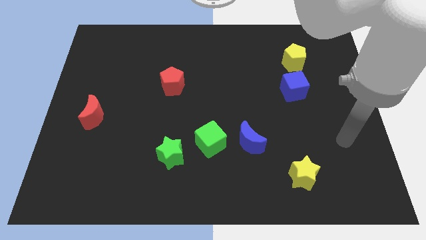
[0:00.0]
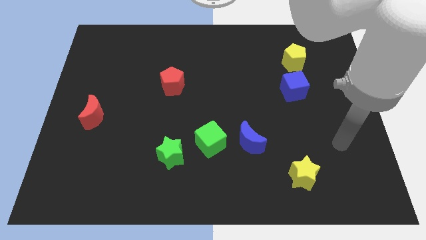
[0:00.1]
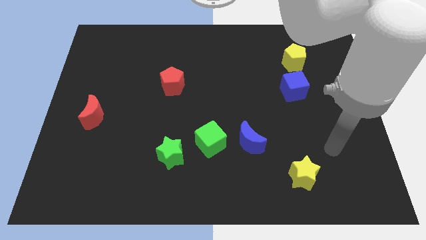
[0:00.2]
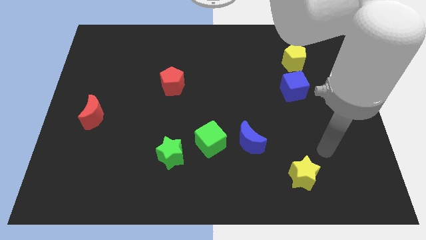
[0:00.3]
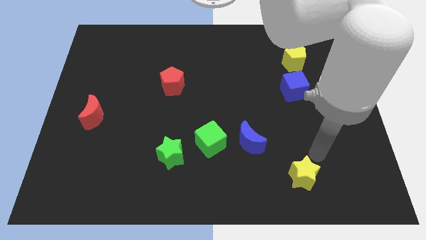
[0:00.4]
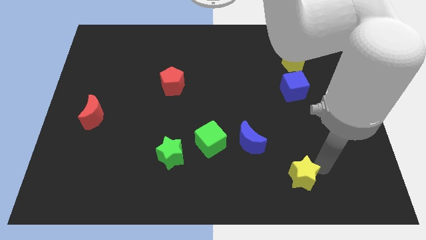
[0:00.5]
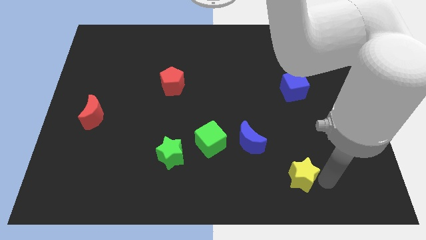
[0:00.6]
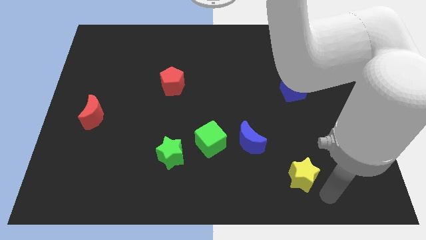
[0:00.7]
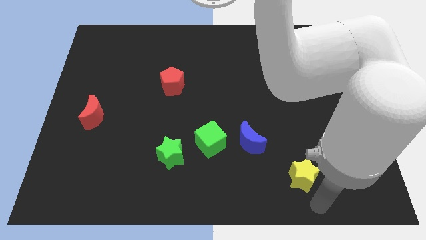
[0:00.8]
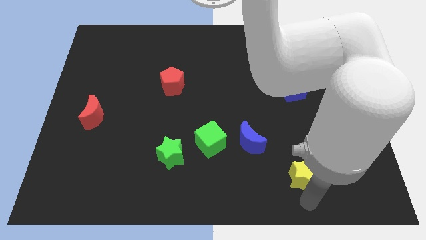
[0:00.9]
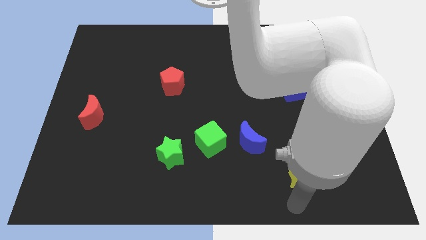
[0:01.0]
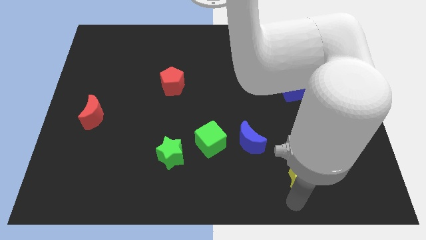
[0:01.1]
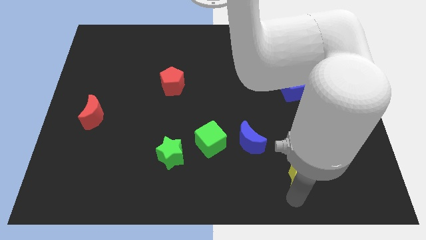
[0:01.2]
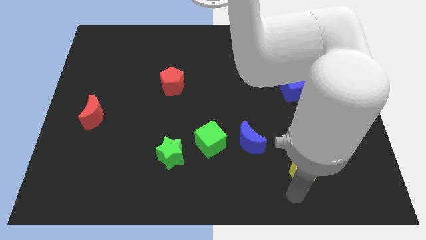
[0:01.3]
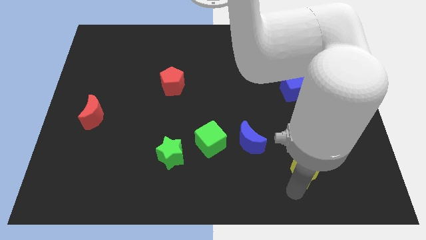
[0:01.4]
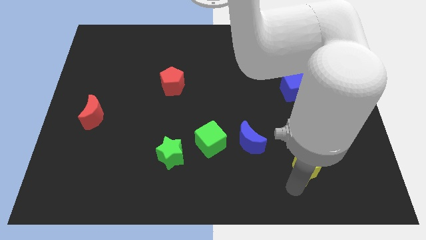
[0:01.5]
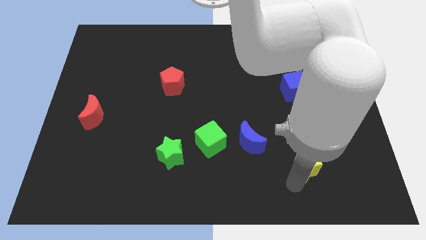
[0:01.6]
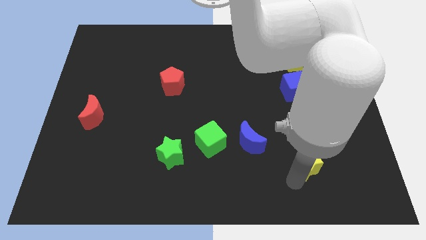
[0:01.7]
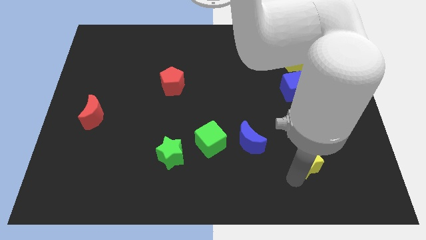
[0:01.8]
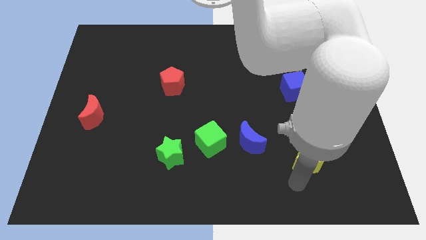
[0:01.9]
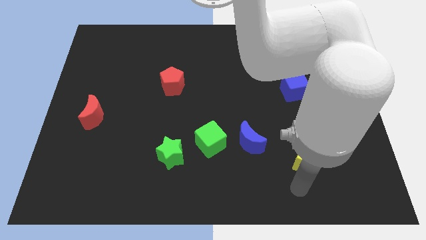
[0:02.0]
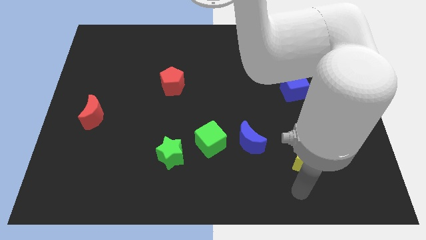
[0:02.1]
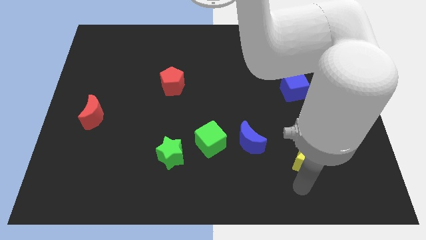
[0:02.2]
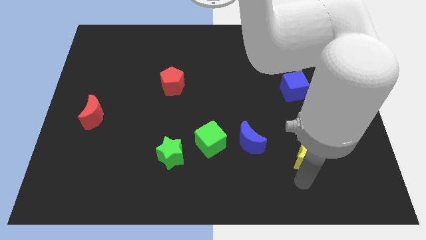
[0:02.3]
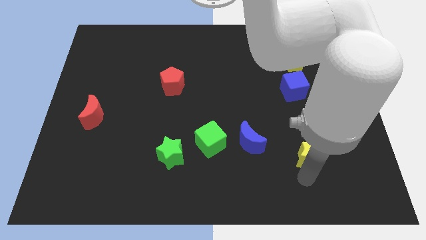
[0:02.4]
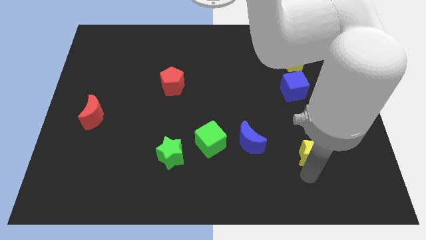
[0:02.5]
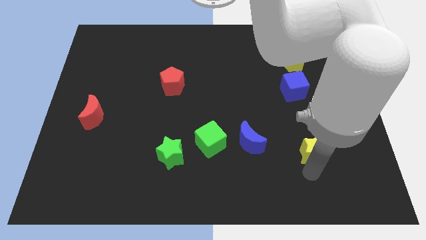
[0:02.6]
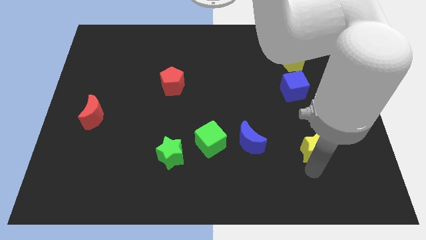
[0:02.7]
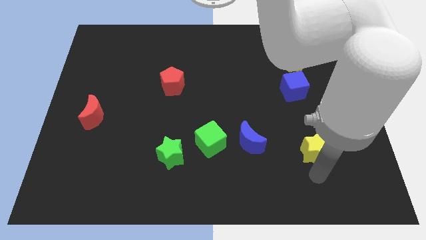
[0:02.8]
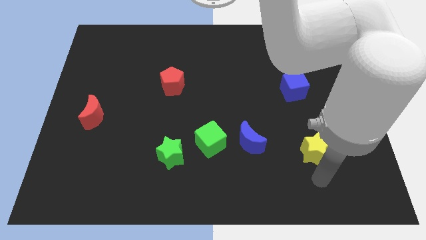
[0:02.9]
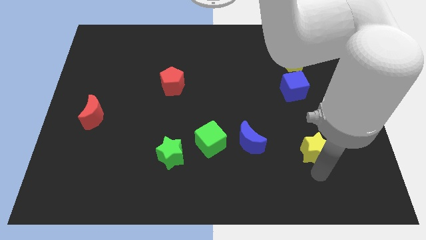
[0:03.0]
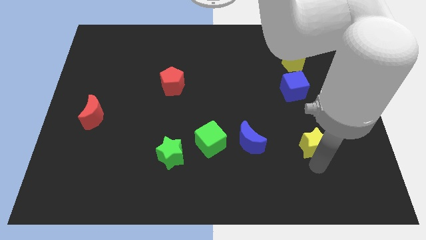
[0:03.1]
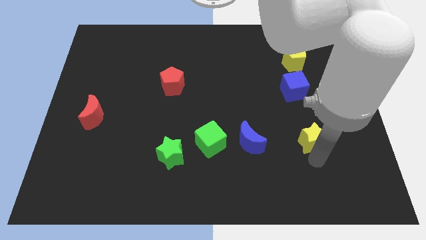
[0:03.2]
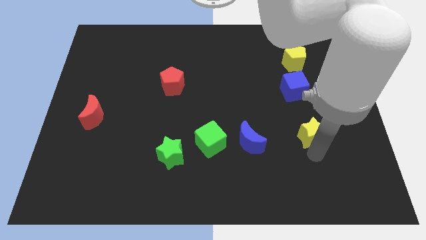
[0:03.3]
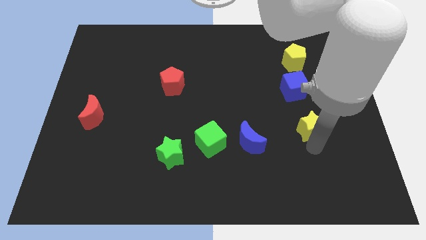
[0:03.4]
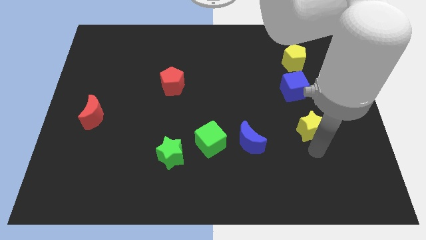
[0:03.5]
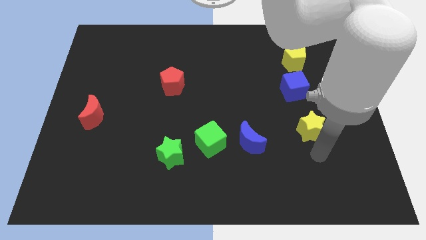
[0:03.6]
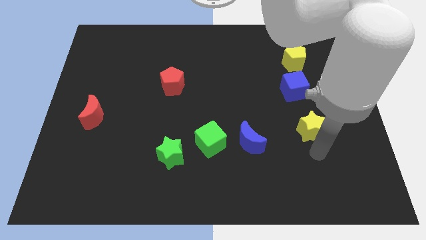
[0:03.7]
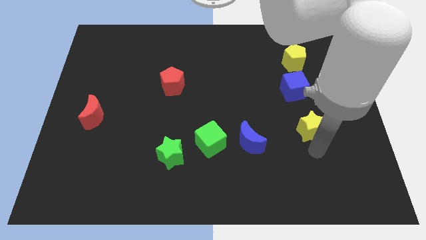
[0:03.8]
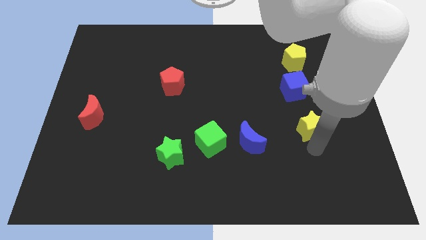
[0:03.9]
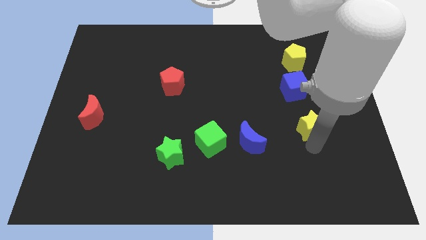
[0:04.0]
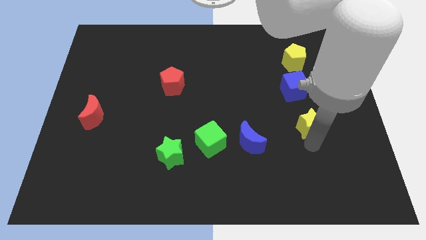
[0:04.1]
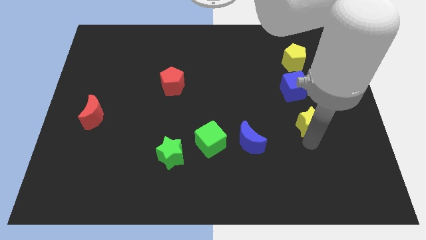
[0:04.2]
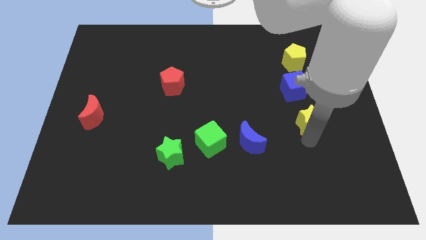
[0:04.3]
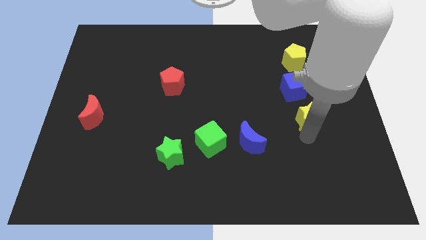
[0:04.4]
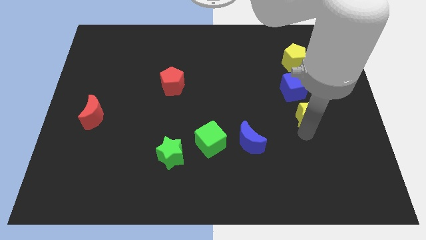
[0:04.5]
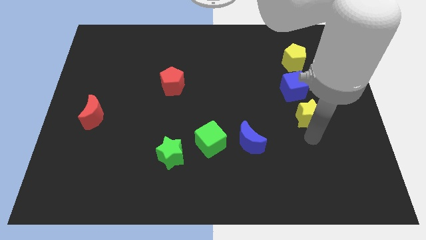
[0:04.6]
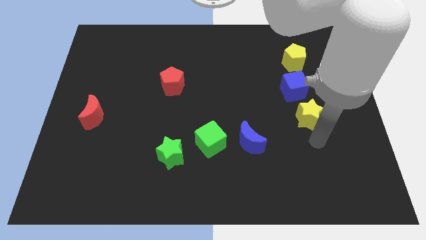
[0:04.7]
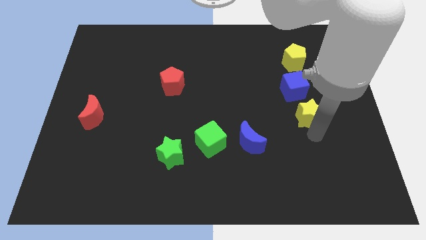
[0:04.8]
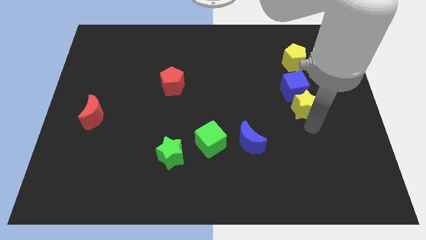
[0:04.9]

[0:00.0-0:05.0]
move the yellow star to the bottom side of the yellow pentagon

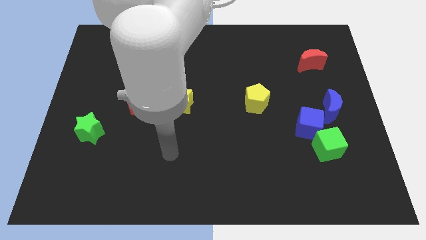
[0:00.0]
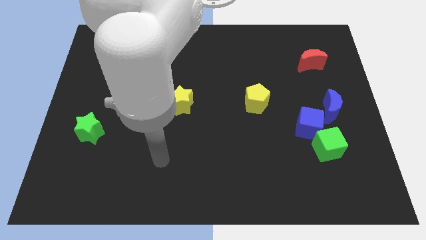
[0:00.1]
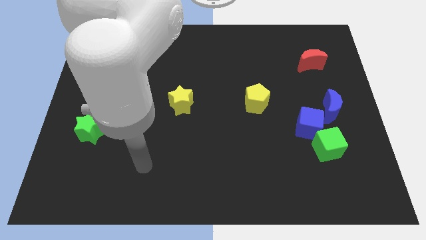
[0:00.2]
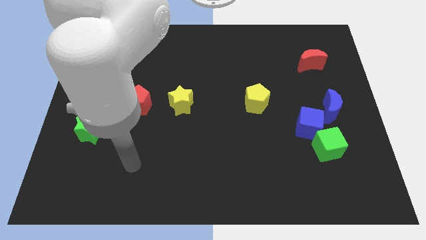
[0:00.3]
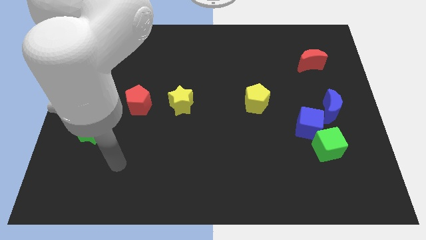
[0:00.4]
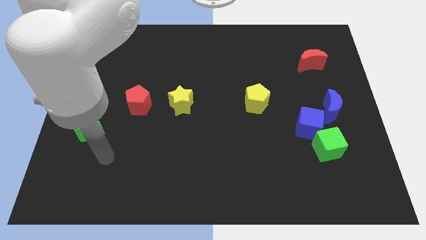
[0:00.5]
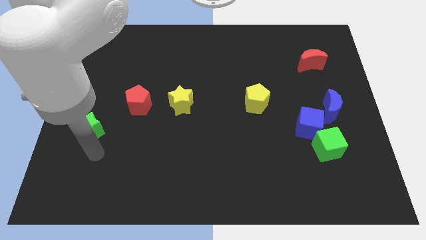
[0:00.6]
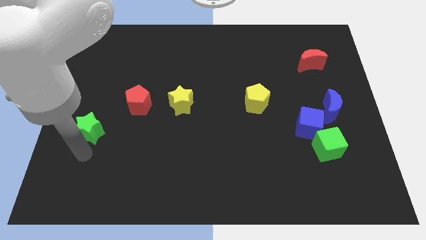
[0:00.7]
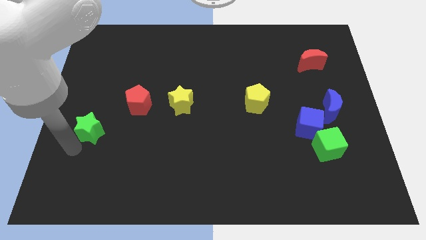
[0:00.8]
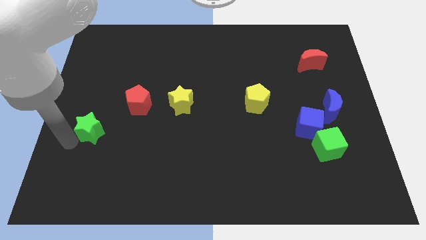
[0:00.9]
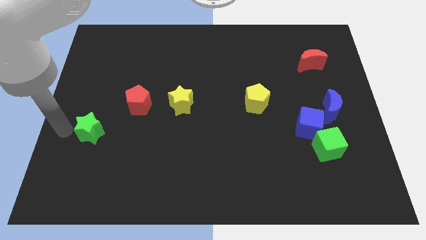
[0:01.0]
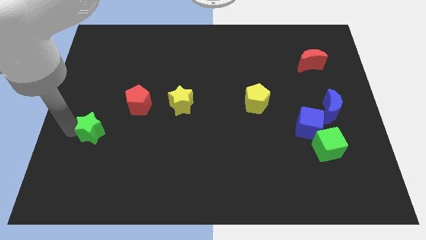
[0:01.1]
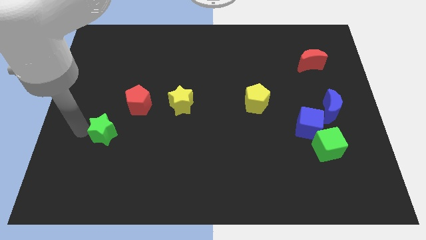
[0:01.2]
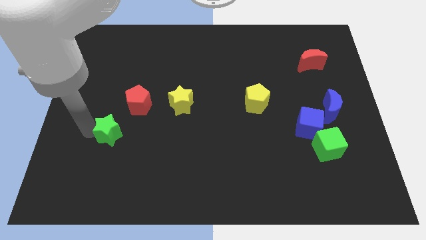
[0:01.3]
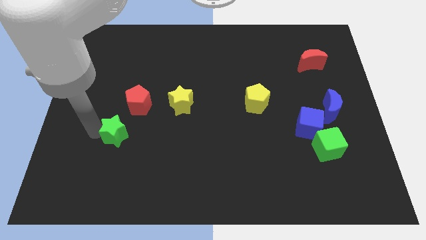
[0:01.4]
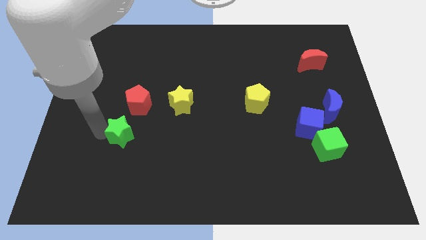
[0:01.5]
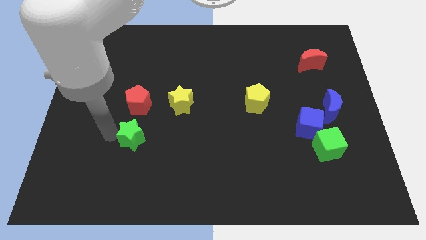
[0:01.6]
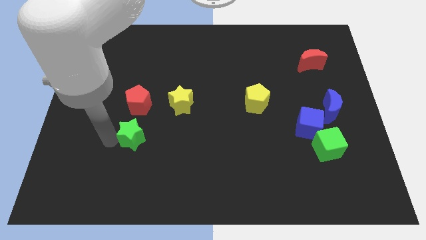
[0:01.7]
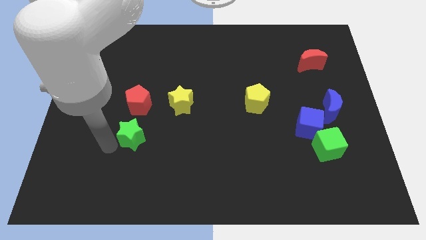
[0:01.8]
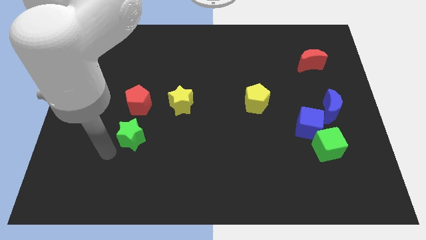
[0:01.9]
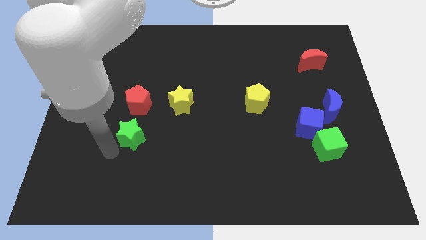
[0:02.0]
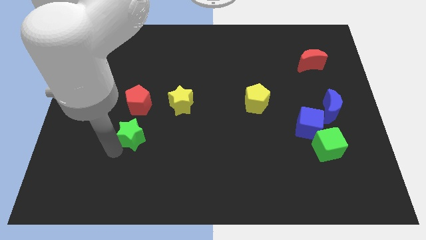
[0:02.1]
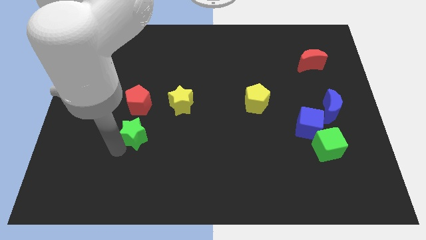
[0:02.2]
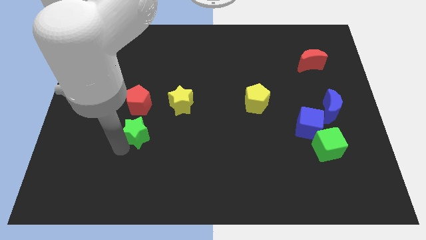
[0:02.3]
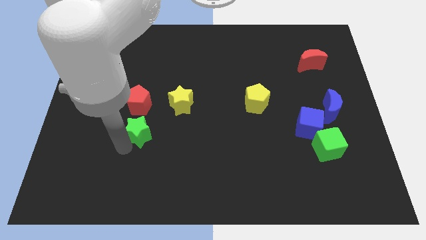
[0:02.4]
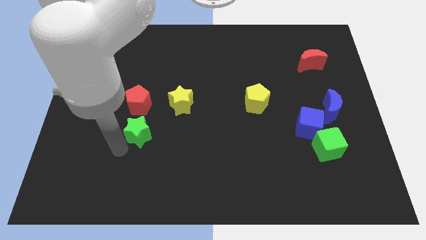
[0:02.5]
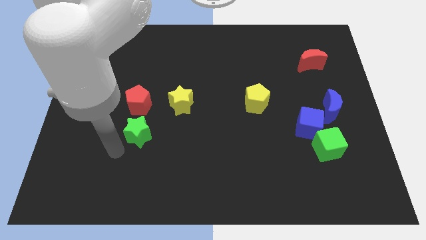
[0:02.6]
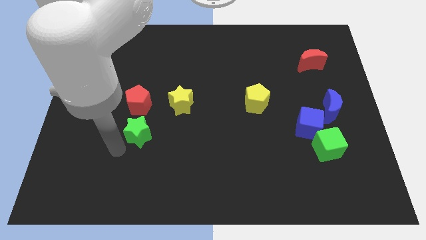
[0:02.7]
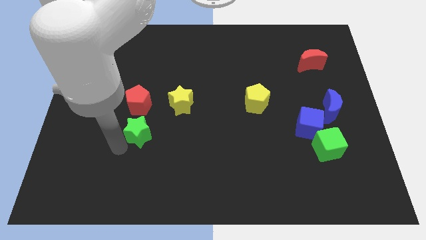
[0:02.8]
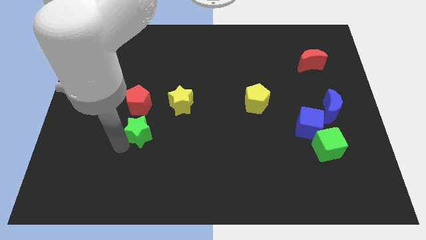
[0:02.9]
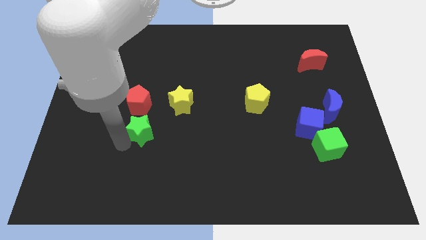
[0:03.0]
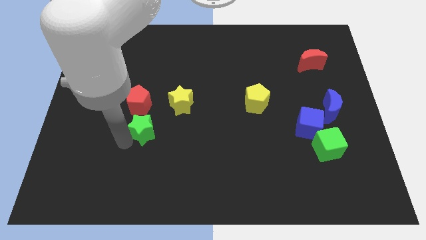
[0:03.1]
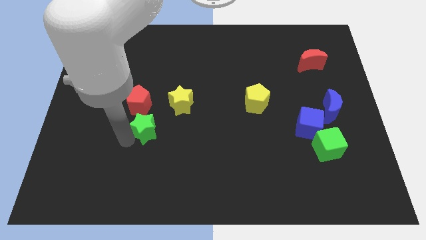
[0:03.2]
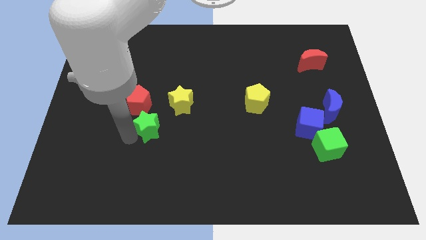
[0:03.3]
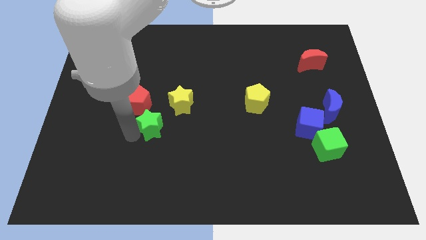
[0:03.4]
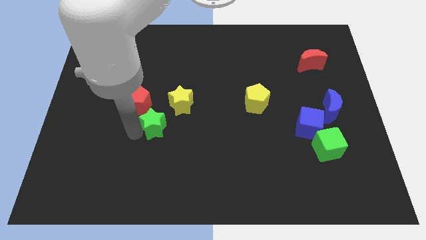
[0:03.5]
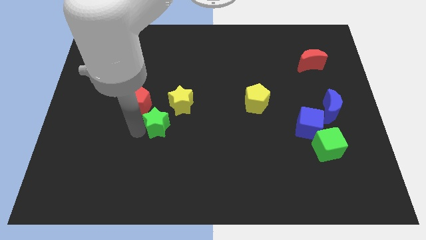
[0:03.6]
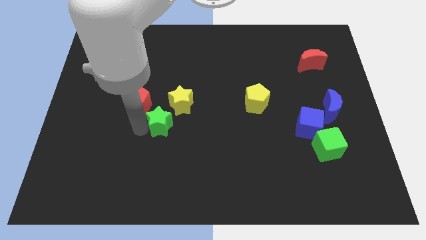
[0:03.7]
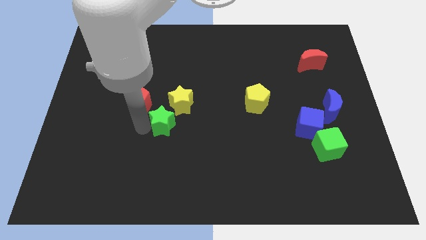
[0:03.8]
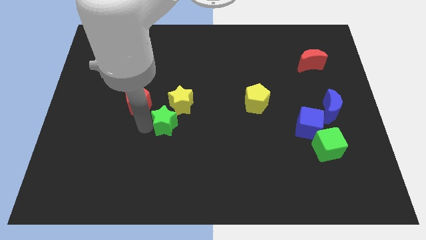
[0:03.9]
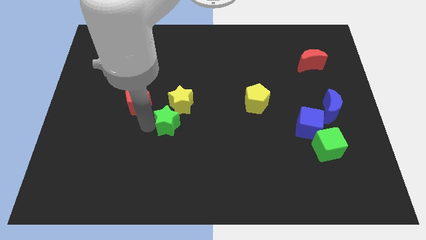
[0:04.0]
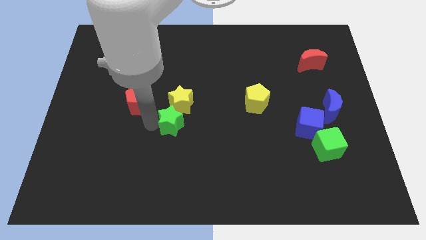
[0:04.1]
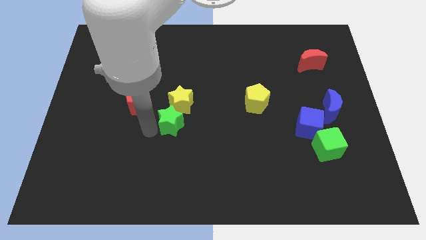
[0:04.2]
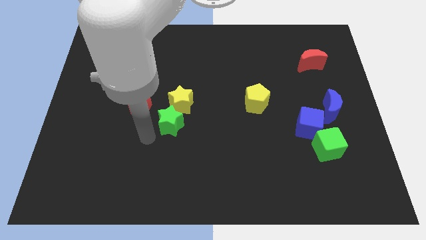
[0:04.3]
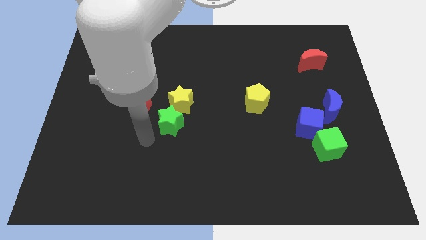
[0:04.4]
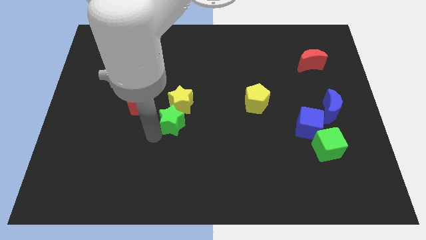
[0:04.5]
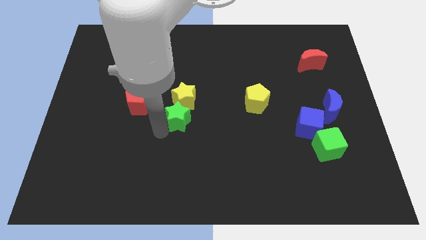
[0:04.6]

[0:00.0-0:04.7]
put the green star right of the red pentagon
